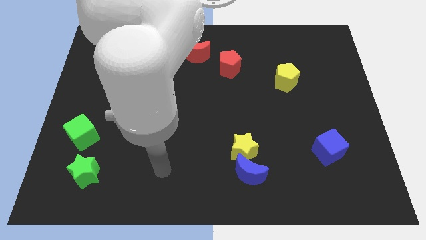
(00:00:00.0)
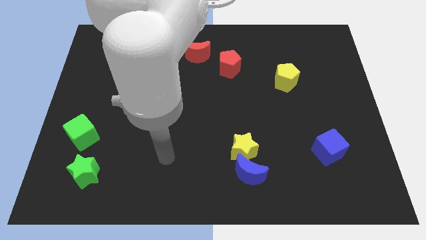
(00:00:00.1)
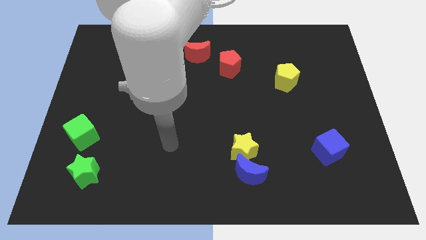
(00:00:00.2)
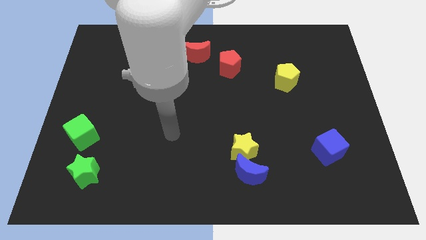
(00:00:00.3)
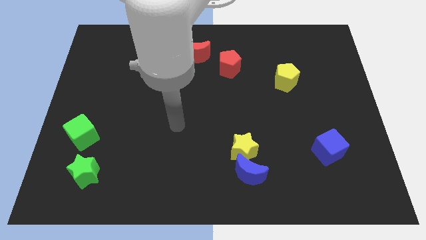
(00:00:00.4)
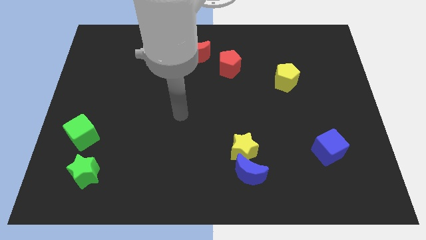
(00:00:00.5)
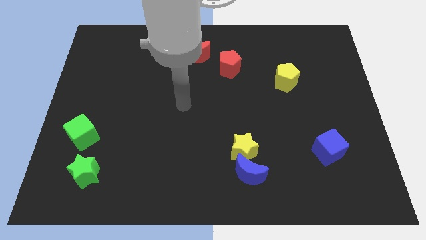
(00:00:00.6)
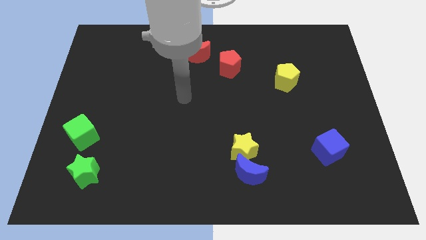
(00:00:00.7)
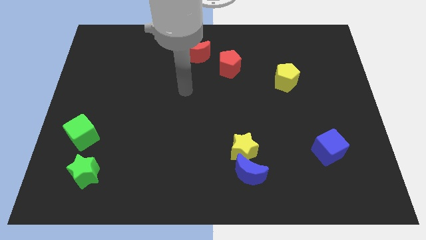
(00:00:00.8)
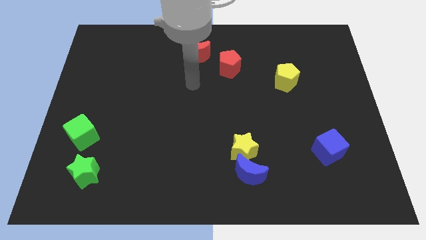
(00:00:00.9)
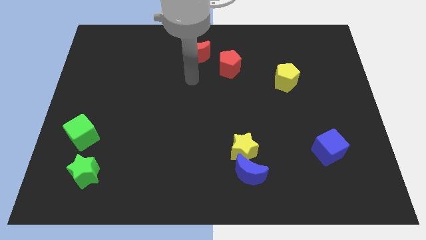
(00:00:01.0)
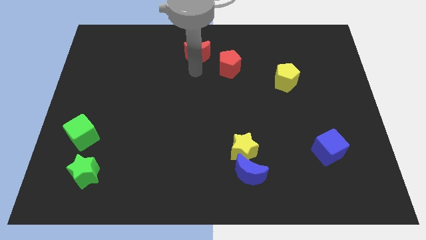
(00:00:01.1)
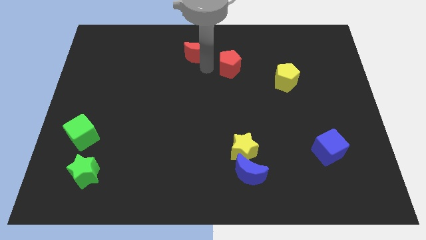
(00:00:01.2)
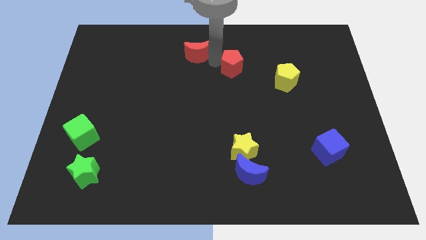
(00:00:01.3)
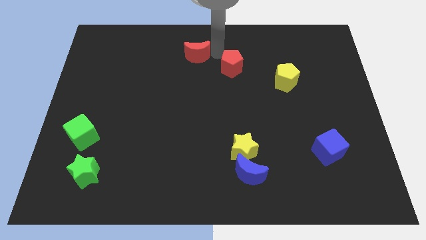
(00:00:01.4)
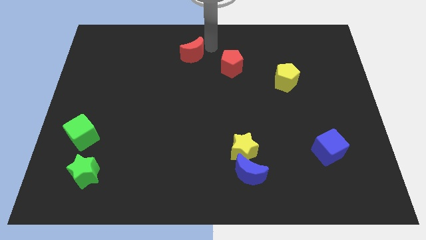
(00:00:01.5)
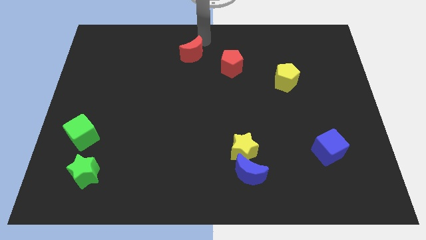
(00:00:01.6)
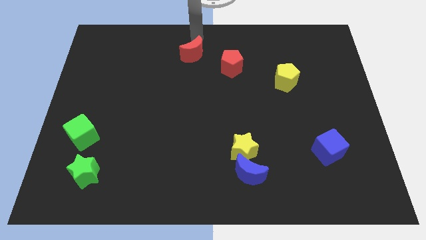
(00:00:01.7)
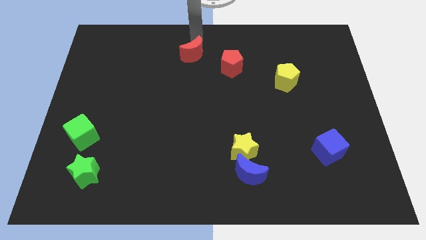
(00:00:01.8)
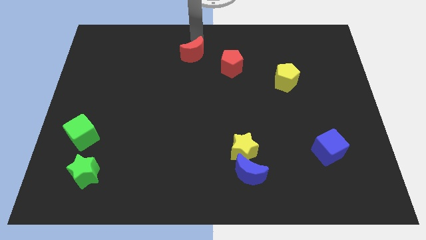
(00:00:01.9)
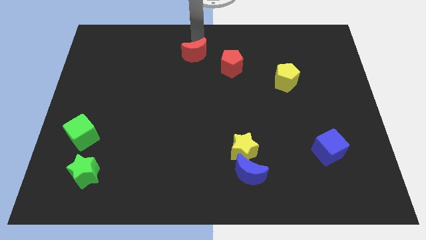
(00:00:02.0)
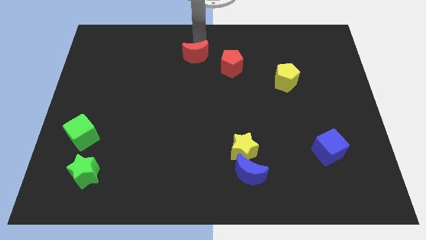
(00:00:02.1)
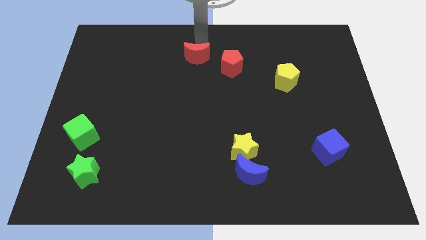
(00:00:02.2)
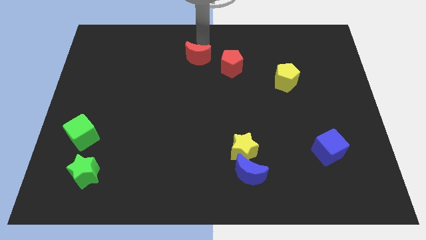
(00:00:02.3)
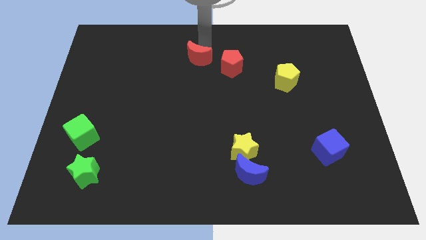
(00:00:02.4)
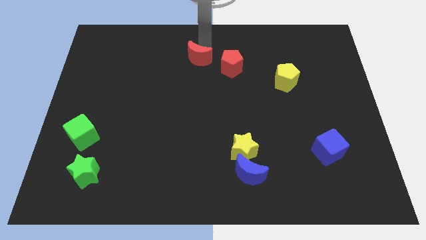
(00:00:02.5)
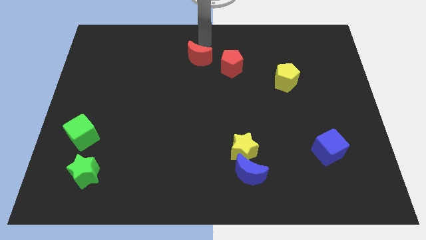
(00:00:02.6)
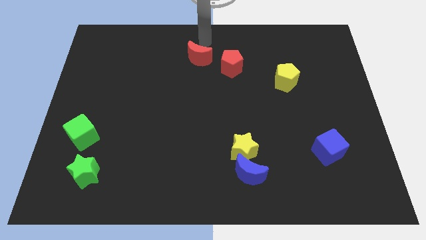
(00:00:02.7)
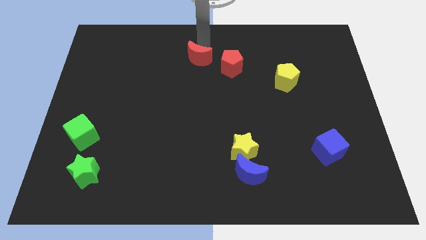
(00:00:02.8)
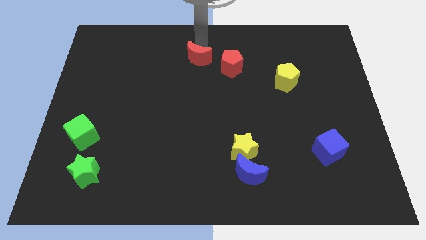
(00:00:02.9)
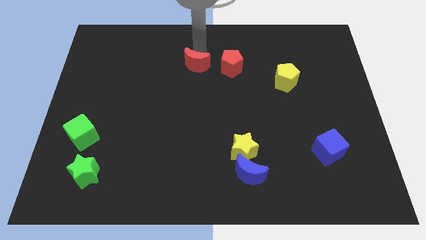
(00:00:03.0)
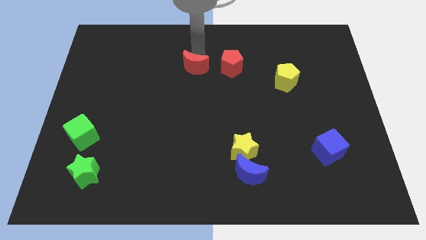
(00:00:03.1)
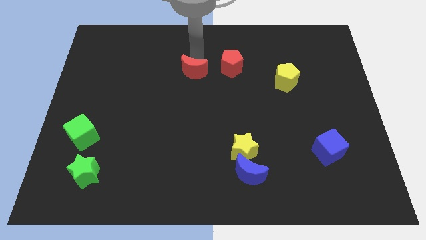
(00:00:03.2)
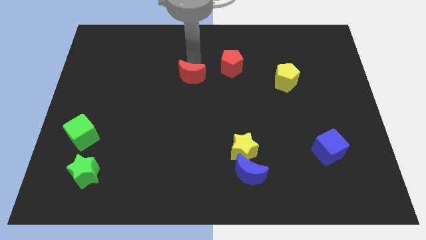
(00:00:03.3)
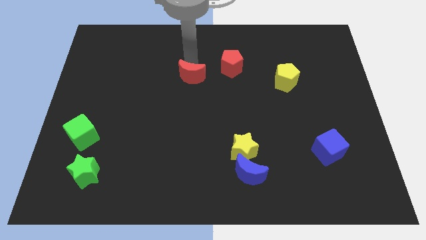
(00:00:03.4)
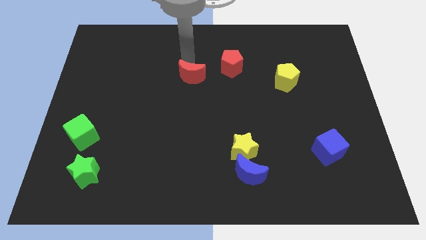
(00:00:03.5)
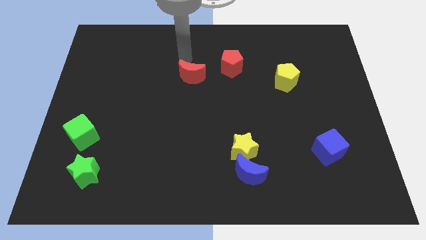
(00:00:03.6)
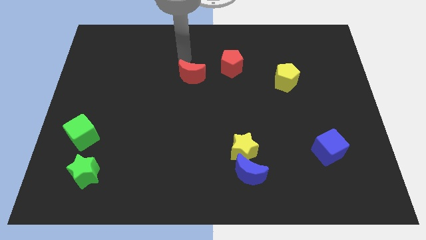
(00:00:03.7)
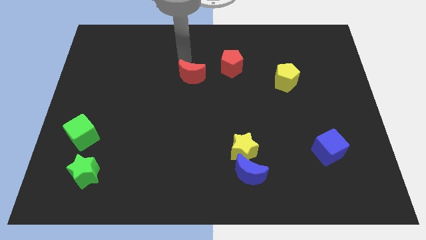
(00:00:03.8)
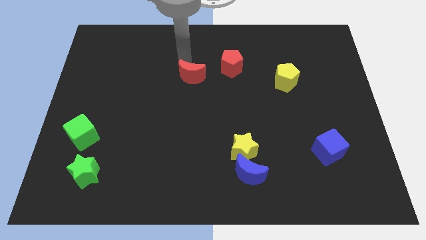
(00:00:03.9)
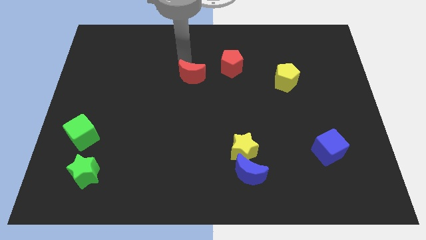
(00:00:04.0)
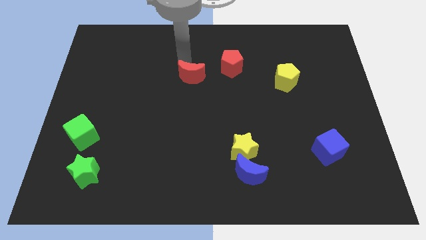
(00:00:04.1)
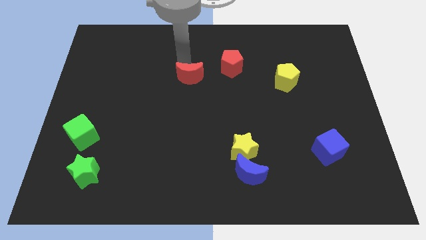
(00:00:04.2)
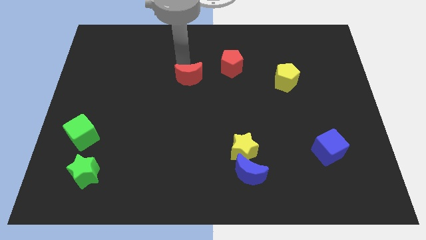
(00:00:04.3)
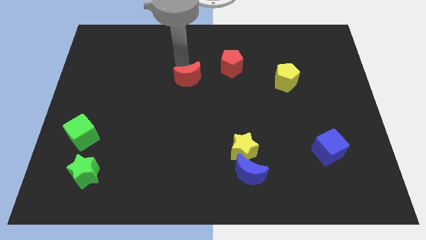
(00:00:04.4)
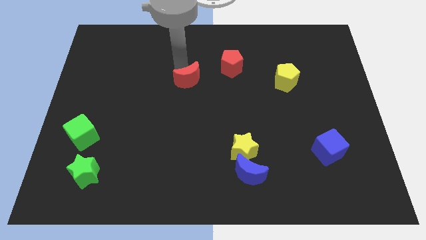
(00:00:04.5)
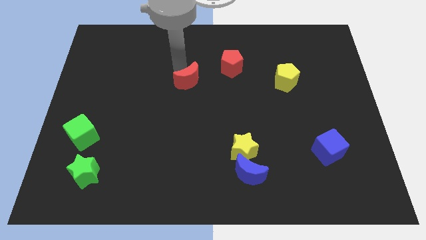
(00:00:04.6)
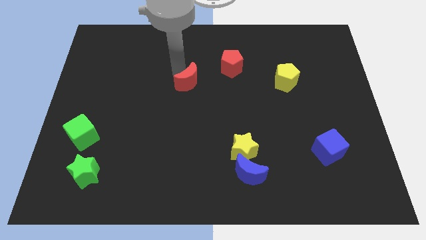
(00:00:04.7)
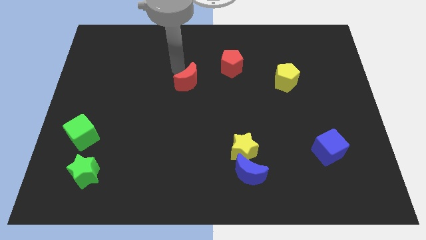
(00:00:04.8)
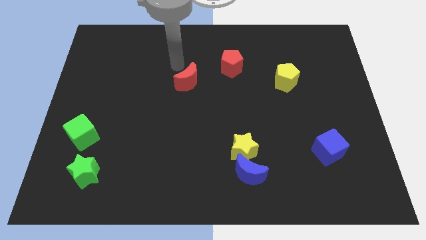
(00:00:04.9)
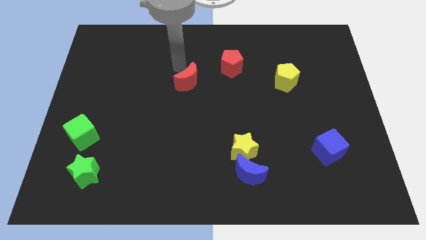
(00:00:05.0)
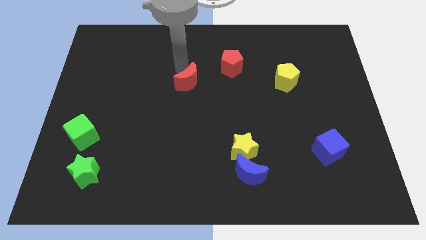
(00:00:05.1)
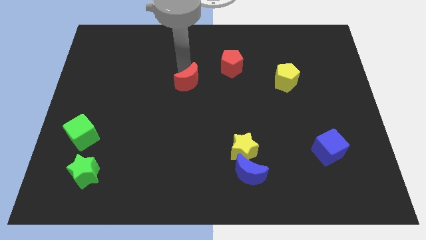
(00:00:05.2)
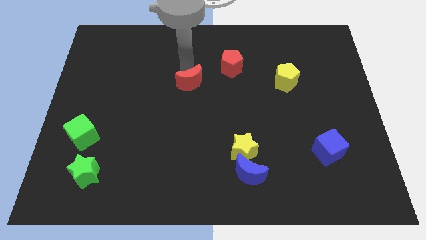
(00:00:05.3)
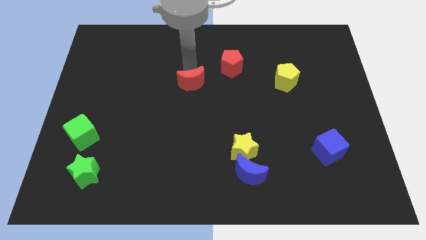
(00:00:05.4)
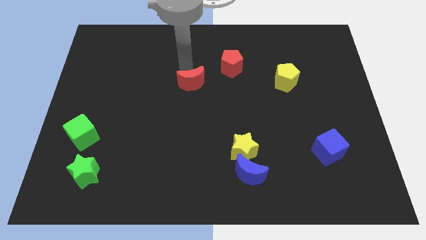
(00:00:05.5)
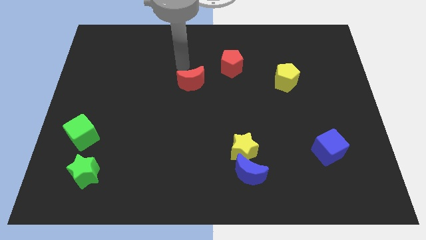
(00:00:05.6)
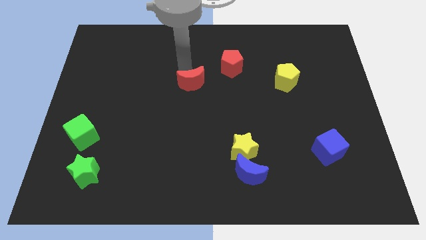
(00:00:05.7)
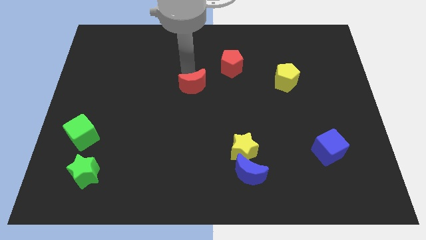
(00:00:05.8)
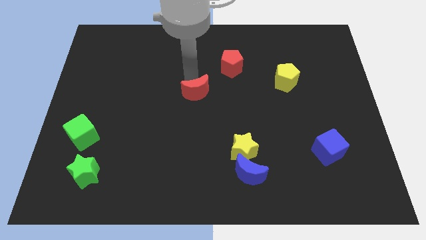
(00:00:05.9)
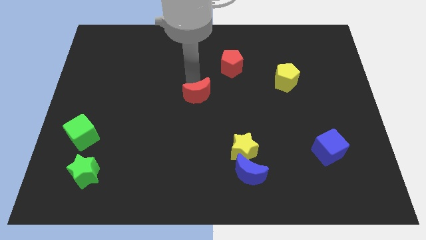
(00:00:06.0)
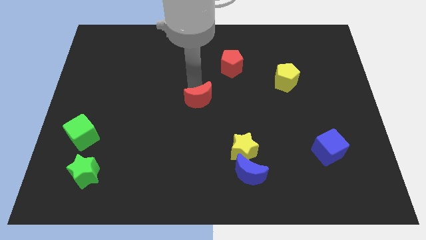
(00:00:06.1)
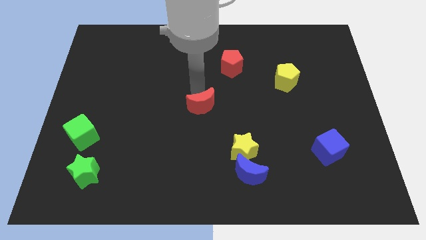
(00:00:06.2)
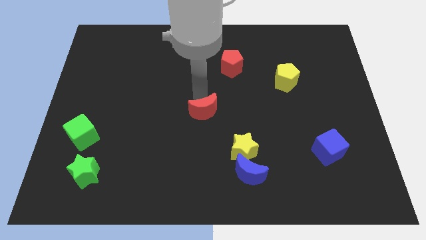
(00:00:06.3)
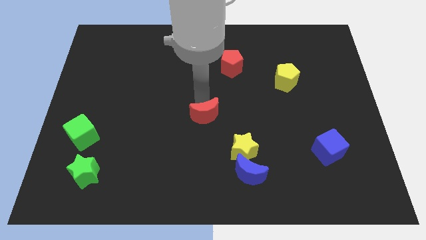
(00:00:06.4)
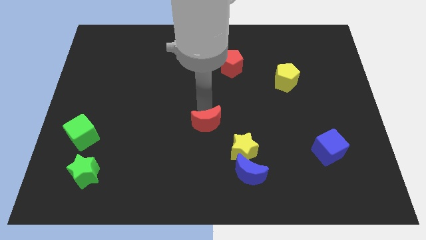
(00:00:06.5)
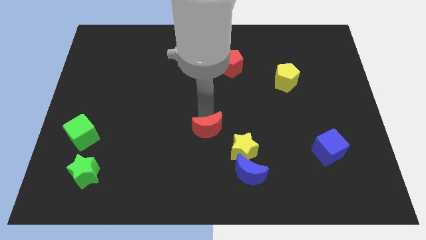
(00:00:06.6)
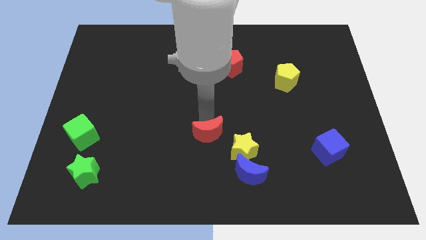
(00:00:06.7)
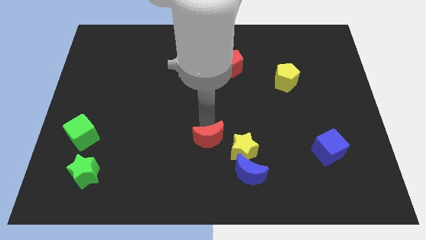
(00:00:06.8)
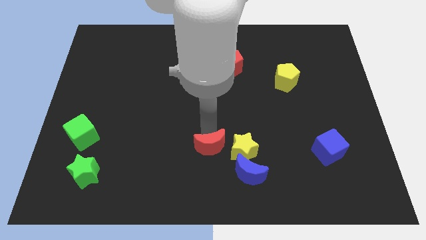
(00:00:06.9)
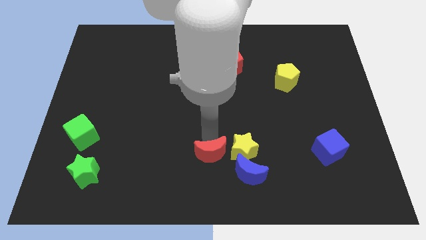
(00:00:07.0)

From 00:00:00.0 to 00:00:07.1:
move the red moon to the bottom

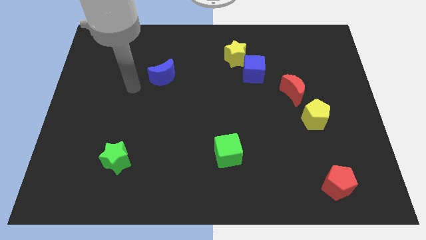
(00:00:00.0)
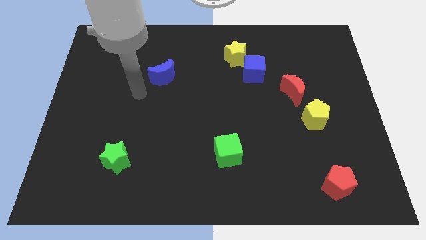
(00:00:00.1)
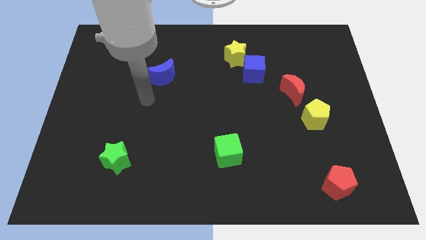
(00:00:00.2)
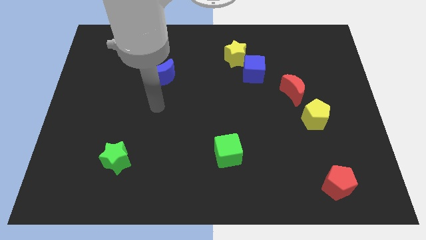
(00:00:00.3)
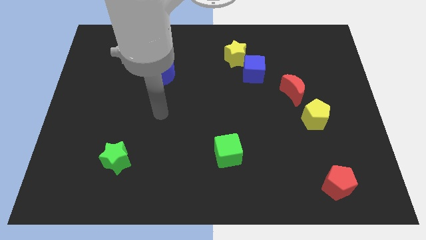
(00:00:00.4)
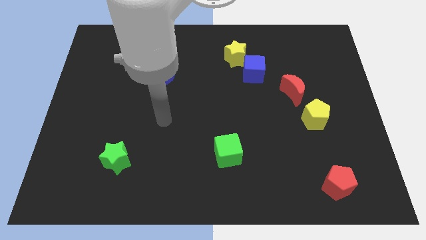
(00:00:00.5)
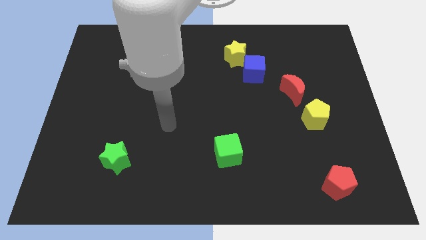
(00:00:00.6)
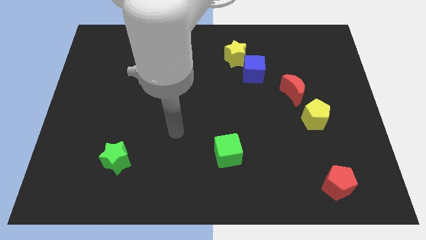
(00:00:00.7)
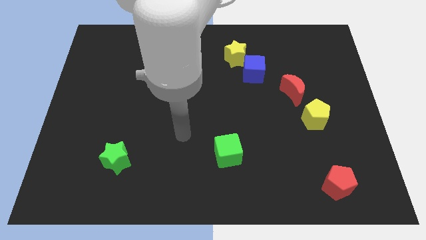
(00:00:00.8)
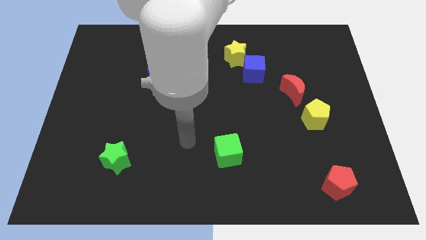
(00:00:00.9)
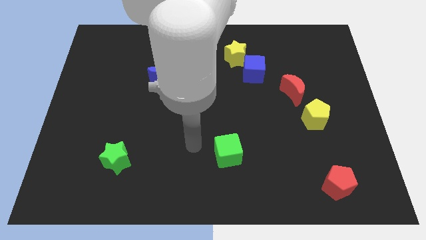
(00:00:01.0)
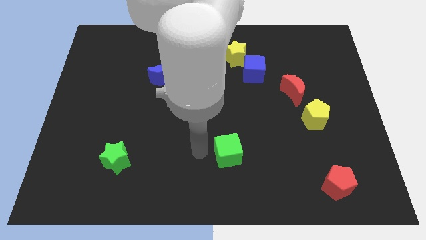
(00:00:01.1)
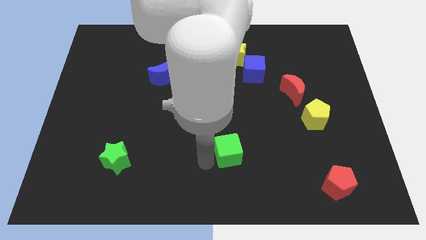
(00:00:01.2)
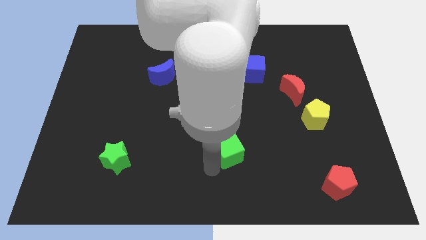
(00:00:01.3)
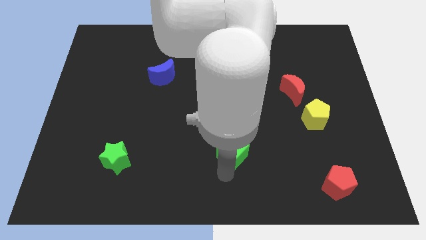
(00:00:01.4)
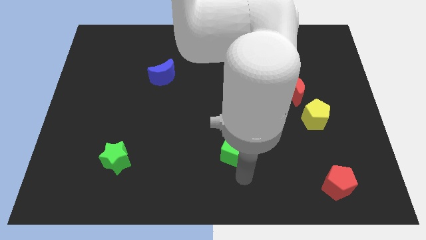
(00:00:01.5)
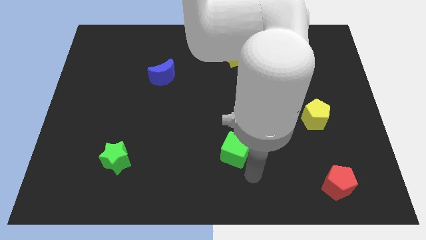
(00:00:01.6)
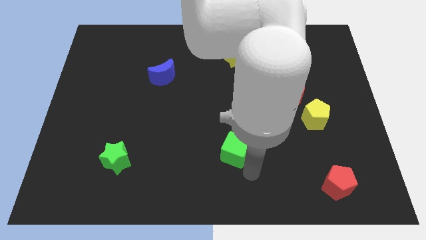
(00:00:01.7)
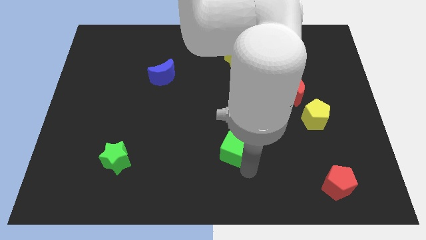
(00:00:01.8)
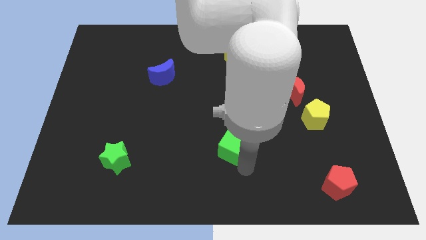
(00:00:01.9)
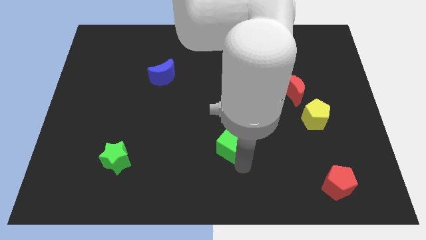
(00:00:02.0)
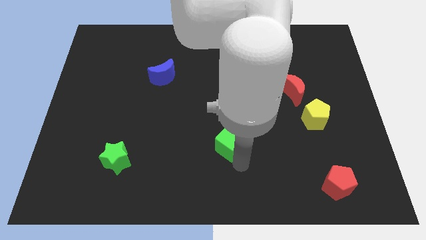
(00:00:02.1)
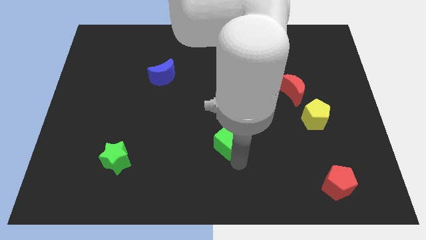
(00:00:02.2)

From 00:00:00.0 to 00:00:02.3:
push the green cube to the center of the board
